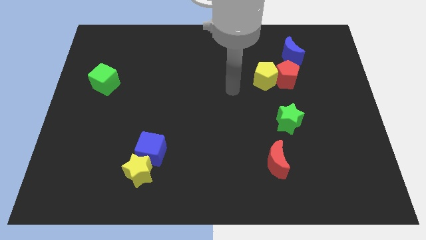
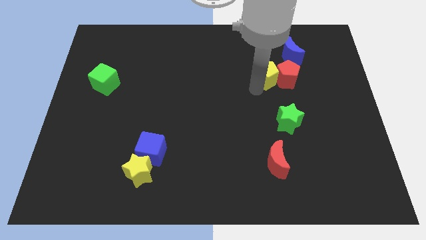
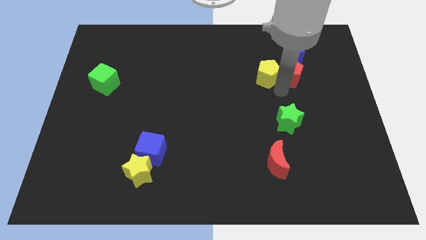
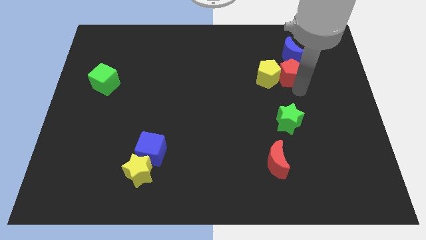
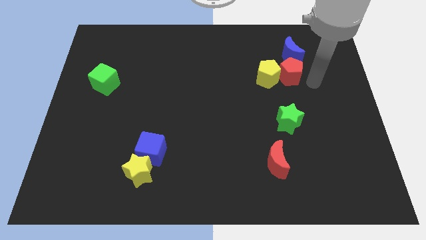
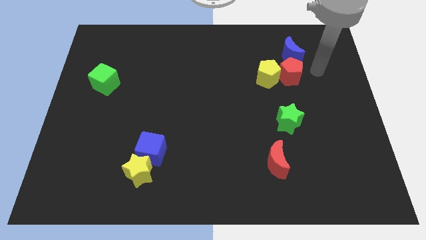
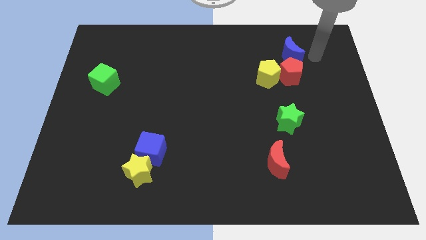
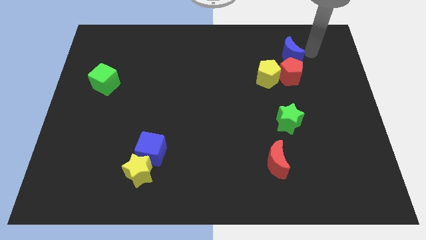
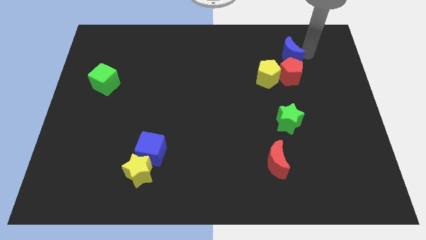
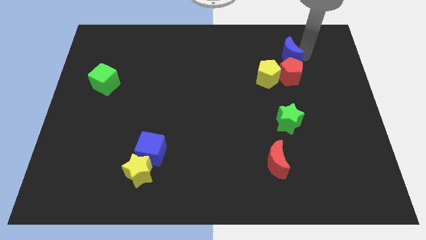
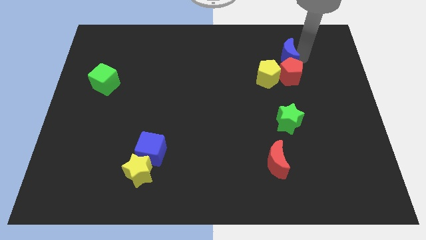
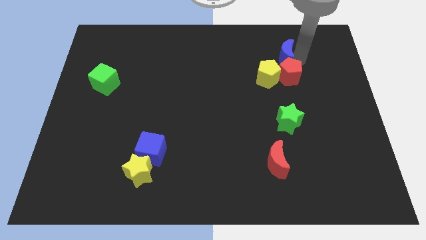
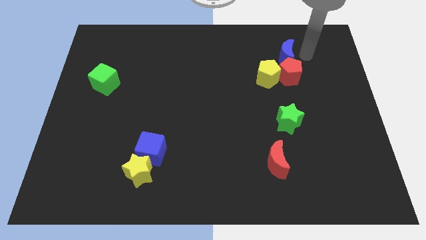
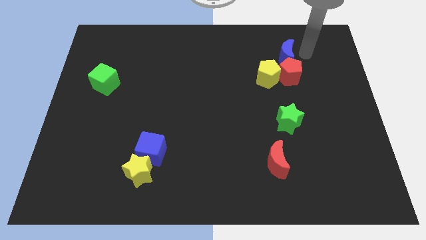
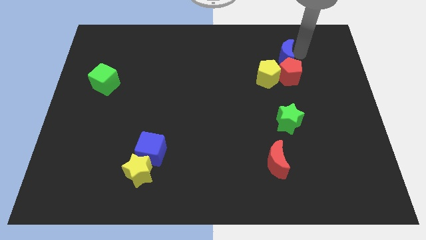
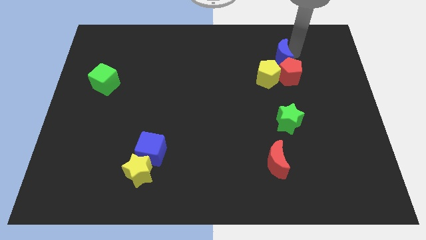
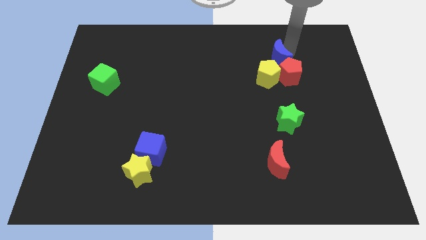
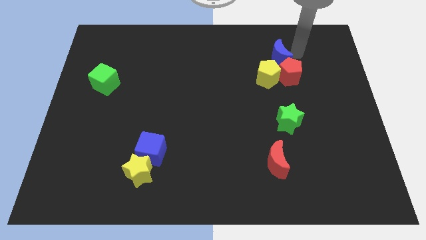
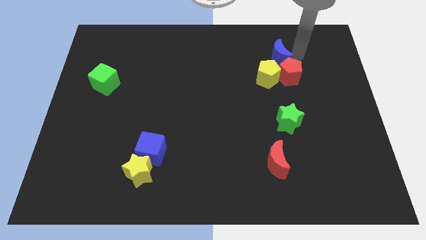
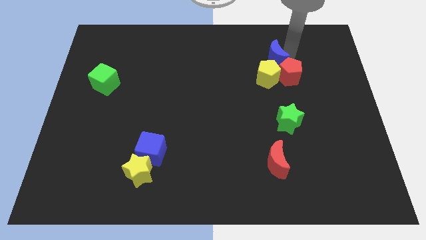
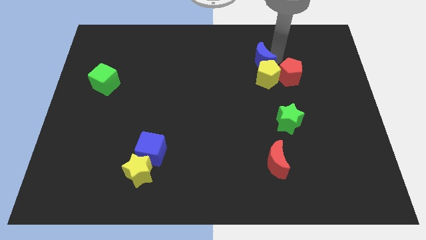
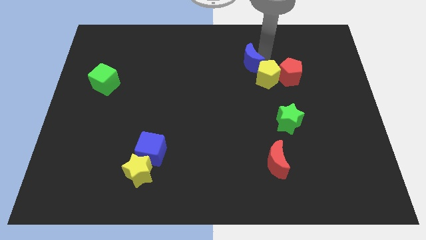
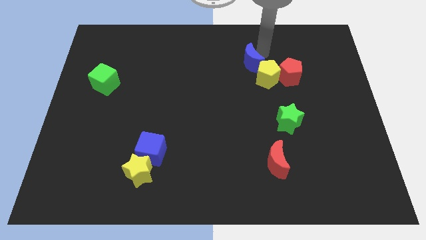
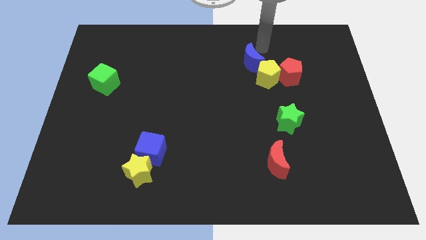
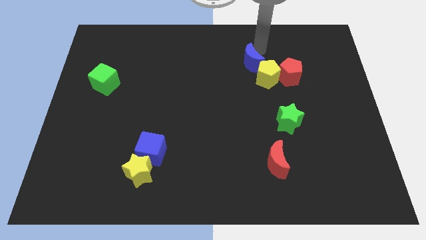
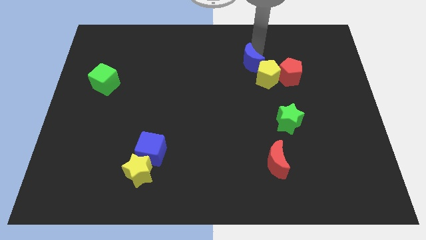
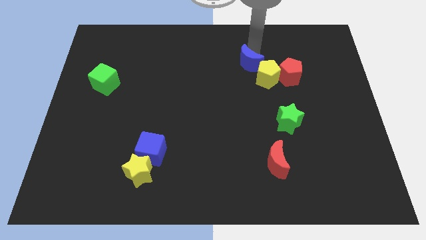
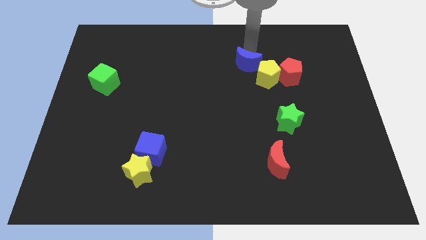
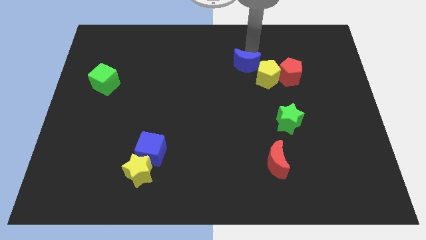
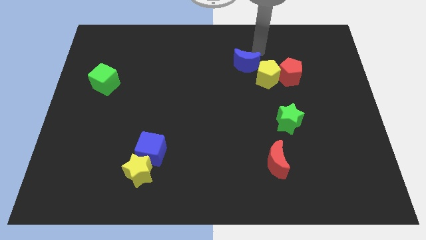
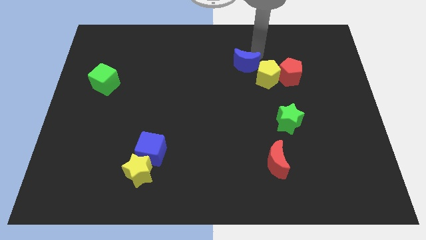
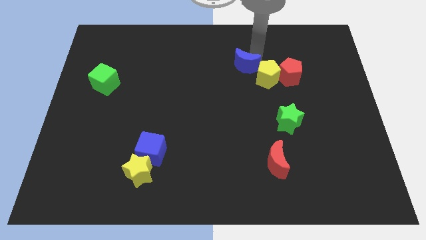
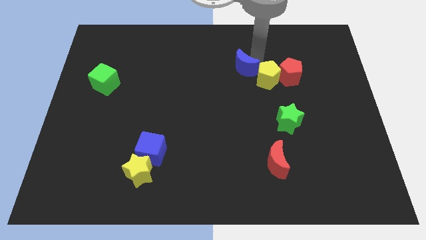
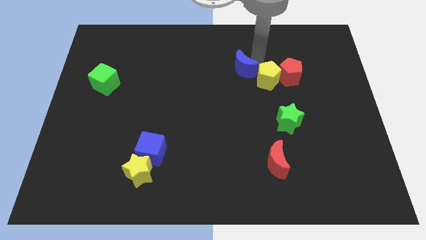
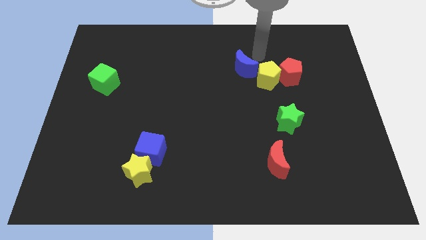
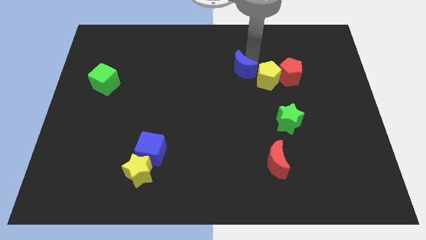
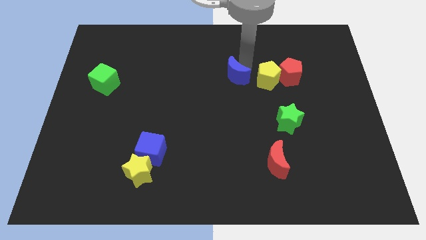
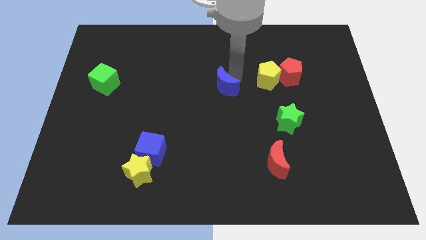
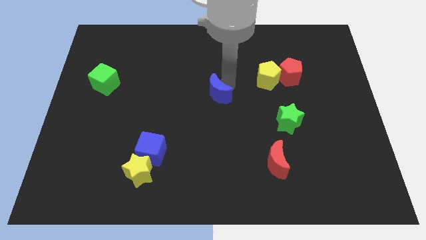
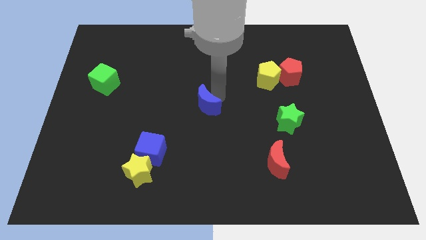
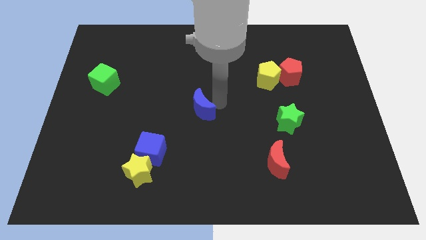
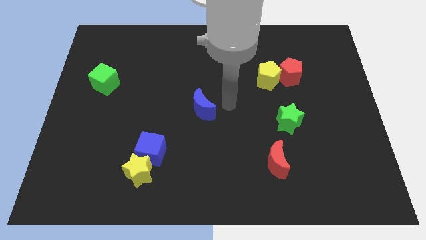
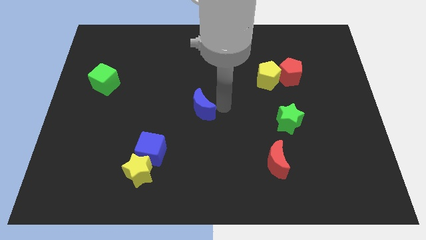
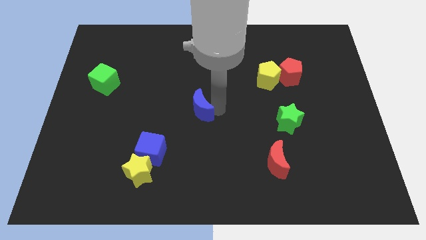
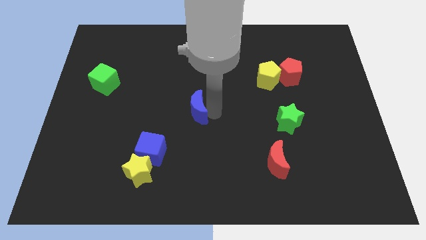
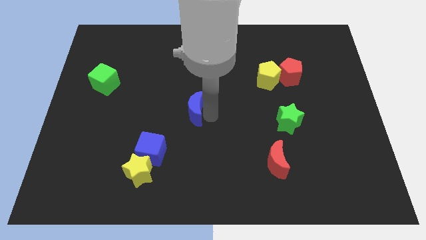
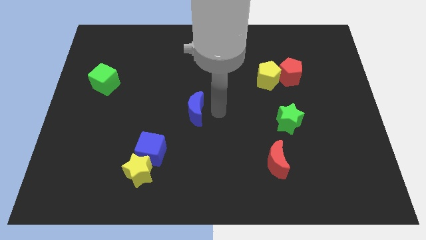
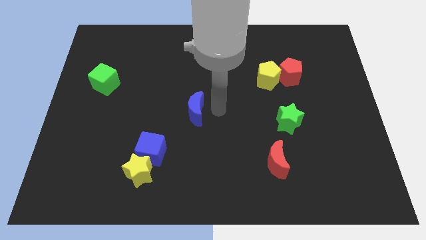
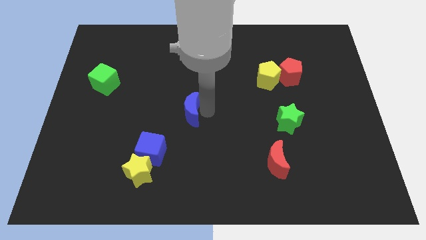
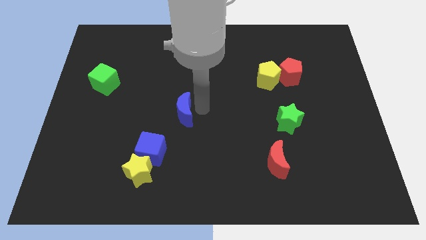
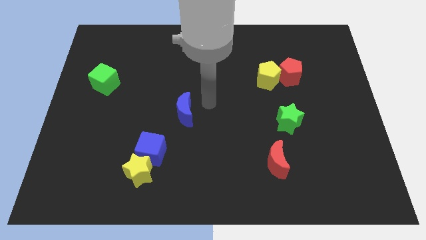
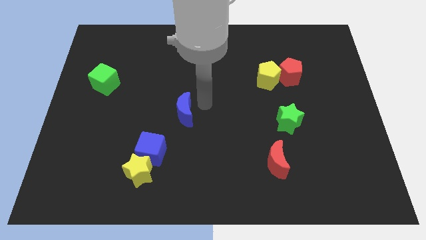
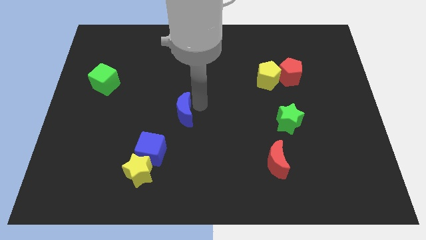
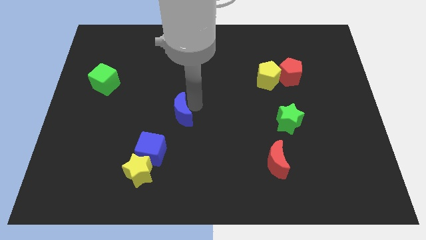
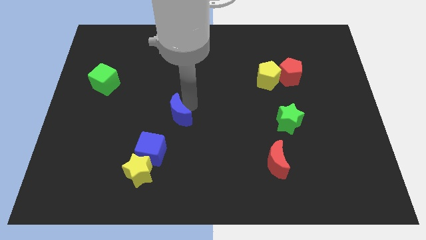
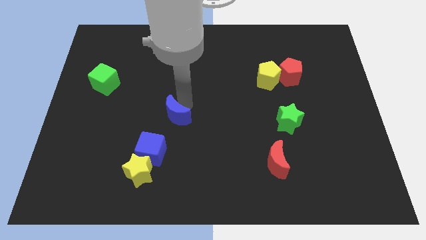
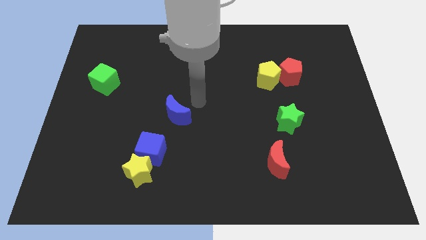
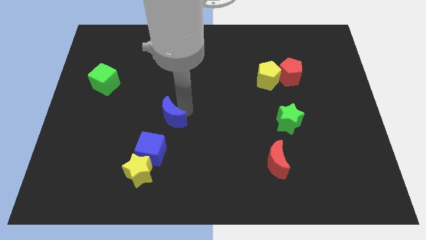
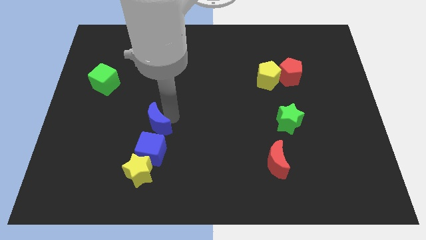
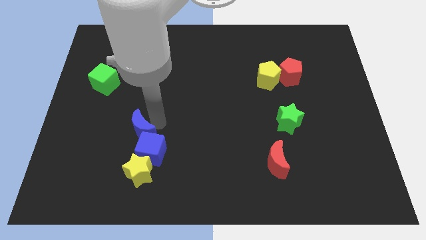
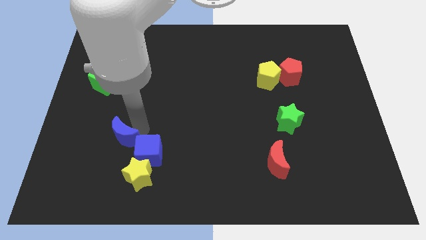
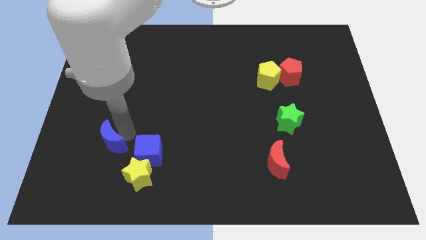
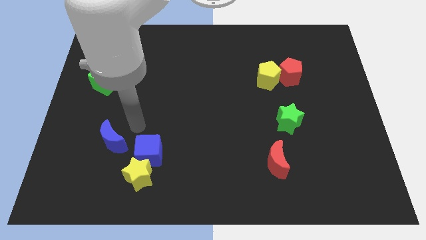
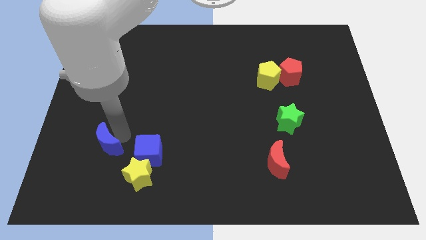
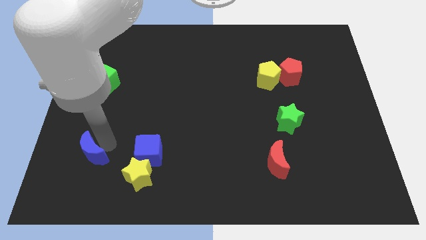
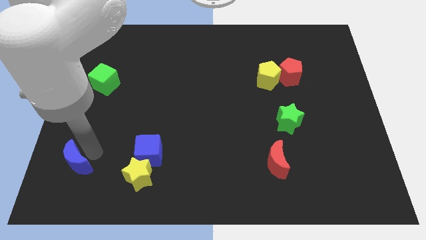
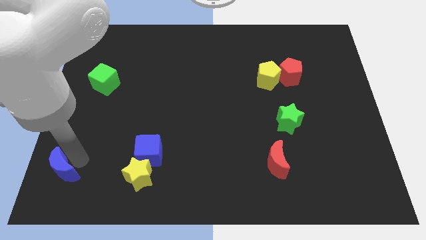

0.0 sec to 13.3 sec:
slide the blue moon to the bottom left corner

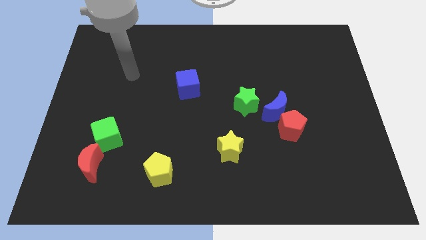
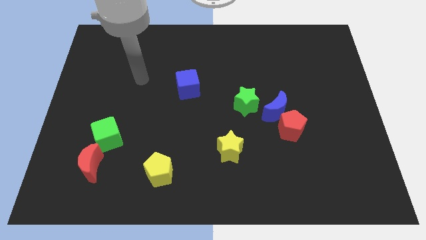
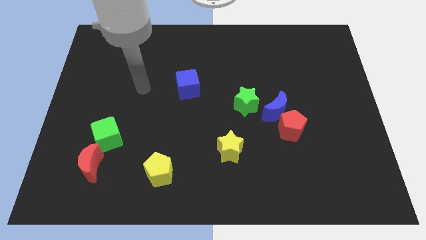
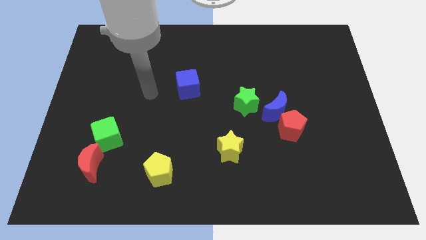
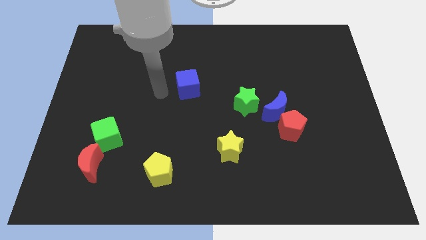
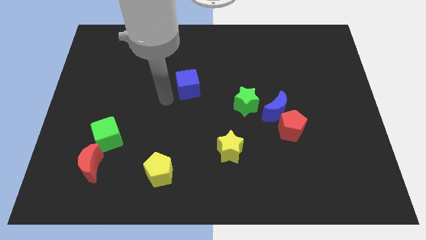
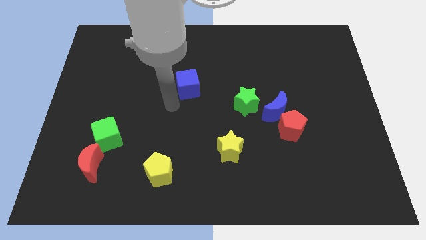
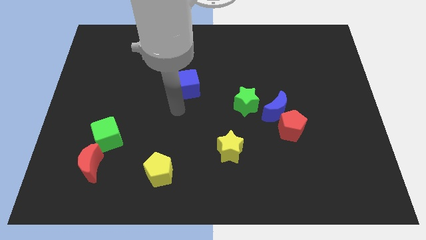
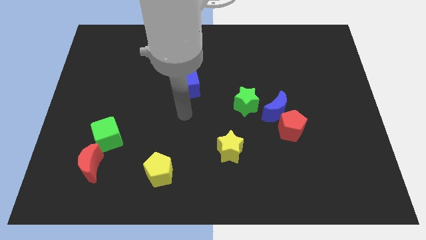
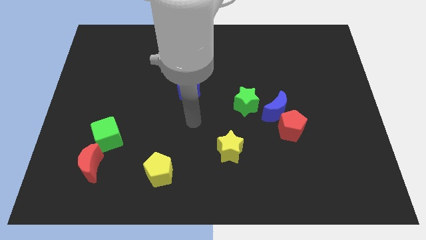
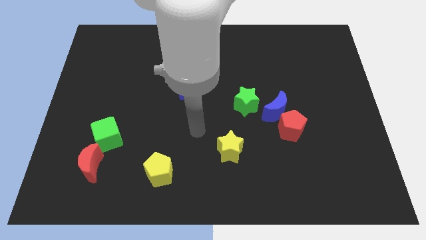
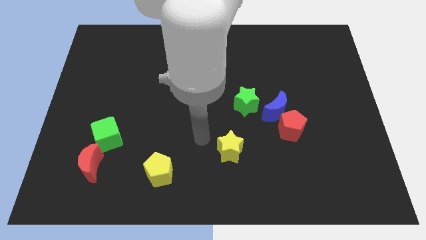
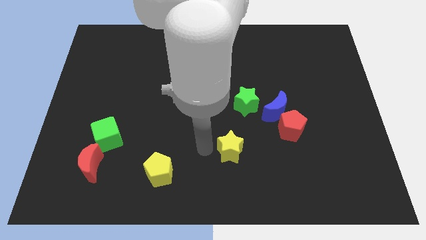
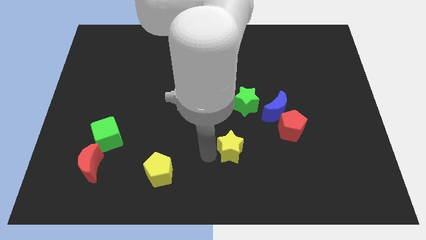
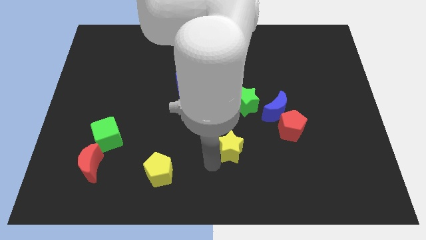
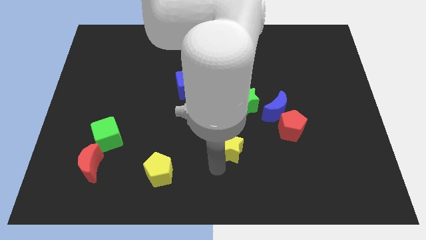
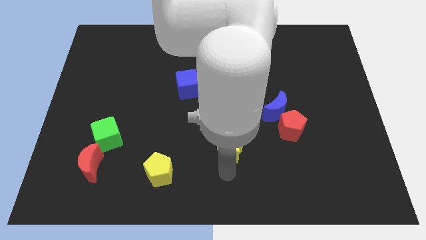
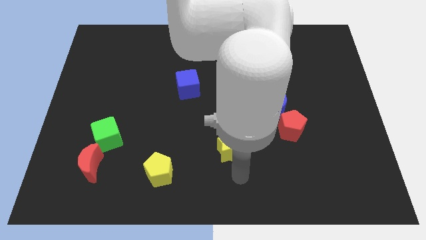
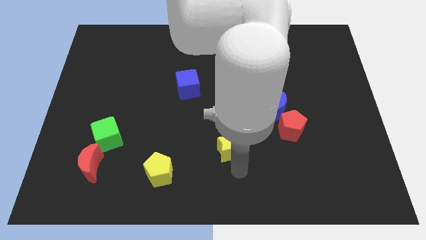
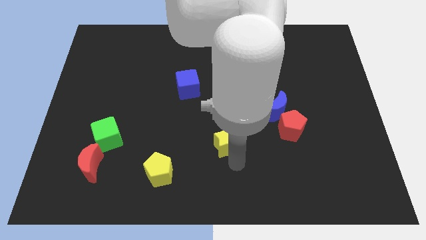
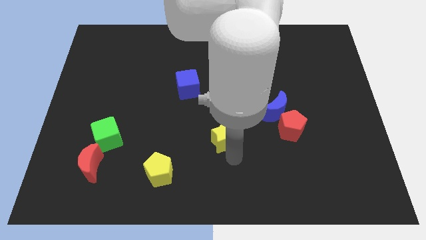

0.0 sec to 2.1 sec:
push the yellow star to the middle of the board
